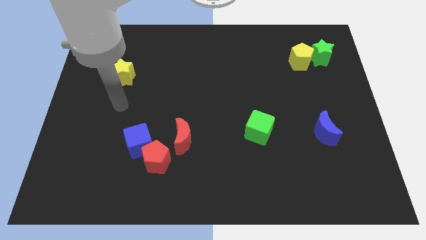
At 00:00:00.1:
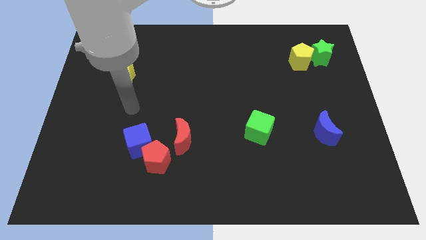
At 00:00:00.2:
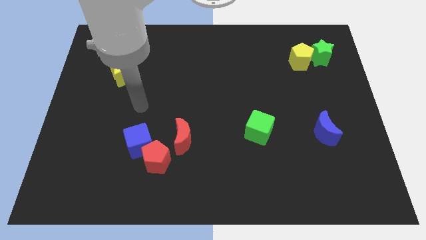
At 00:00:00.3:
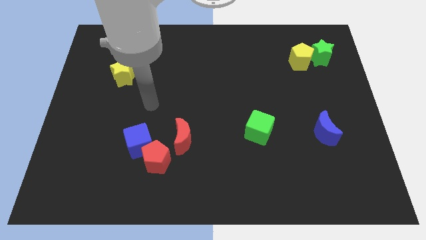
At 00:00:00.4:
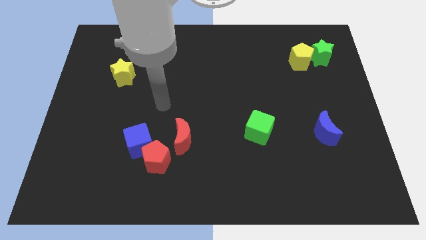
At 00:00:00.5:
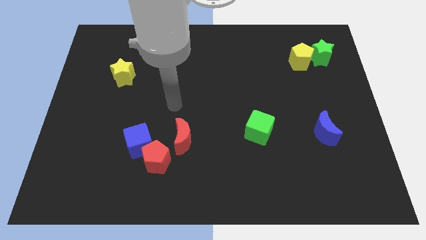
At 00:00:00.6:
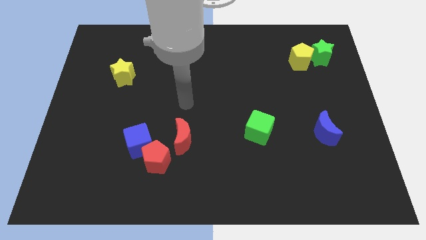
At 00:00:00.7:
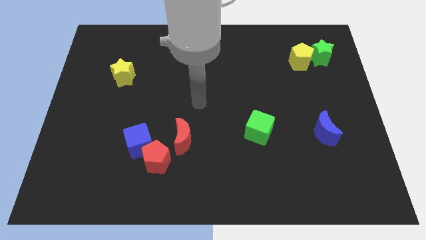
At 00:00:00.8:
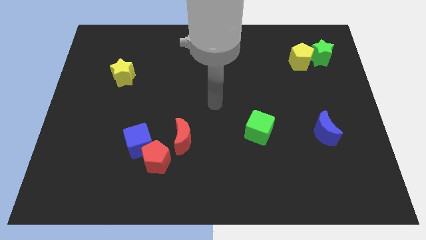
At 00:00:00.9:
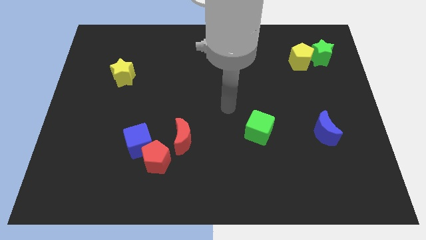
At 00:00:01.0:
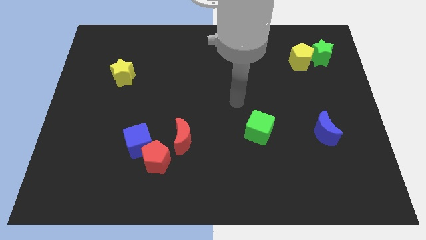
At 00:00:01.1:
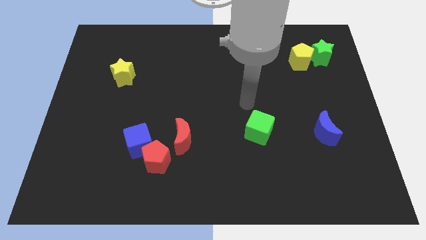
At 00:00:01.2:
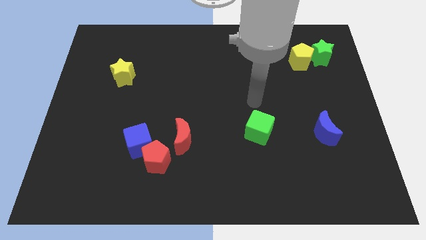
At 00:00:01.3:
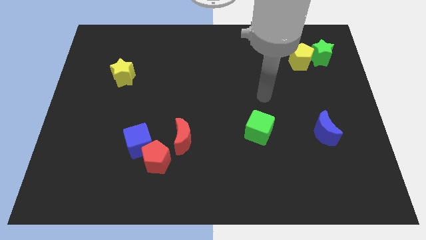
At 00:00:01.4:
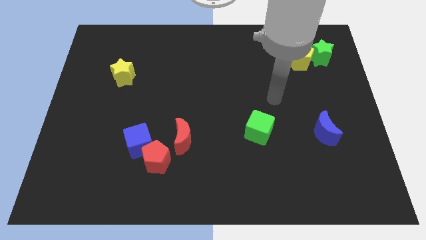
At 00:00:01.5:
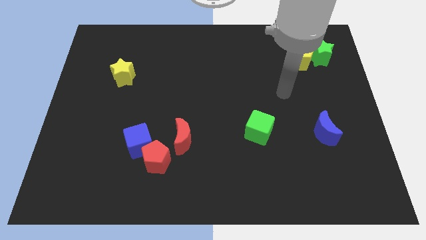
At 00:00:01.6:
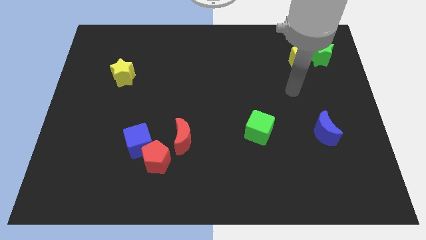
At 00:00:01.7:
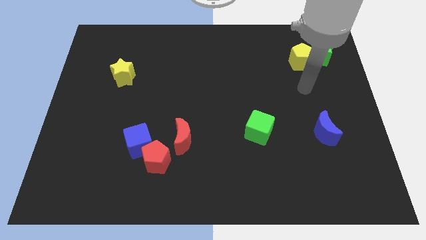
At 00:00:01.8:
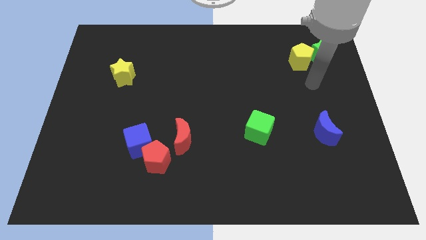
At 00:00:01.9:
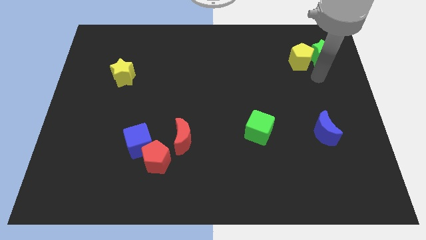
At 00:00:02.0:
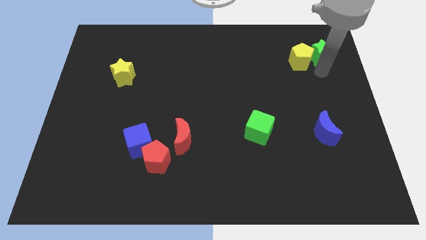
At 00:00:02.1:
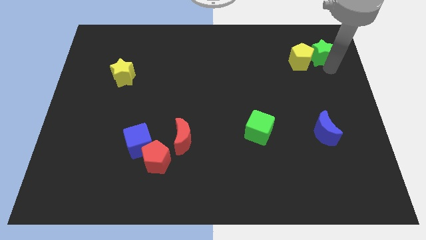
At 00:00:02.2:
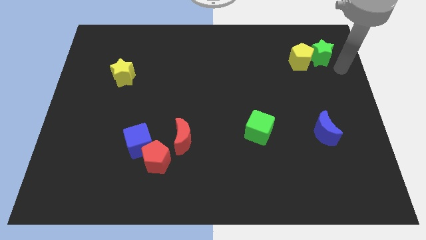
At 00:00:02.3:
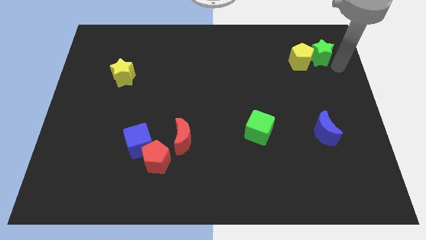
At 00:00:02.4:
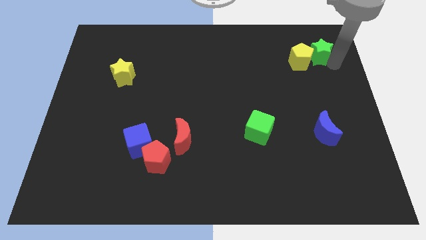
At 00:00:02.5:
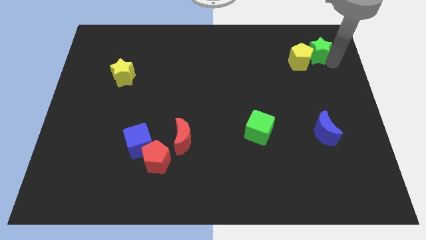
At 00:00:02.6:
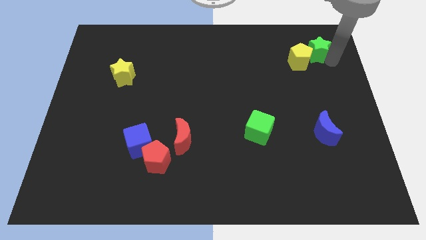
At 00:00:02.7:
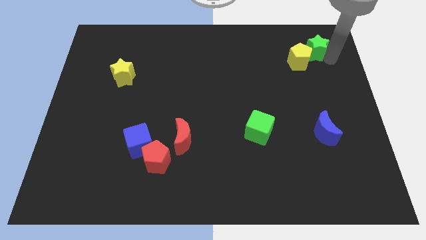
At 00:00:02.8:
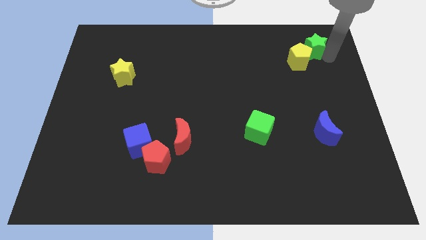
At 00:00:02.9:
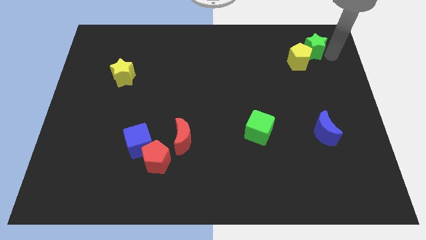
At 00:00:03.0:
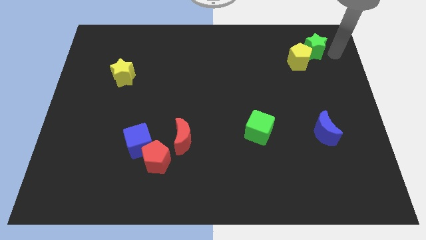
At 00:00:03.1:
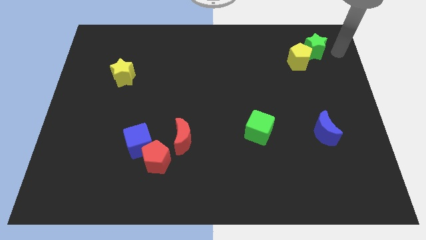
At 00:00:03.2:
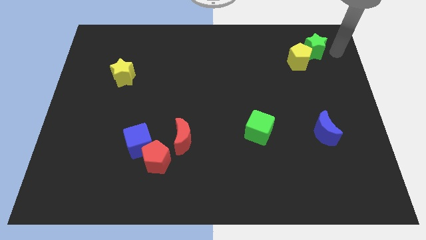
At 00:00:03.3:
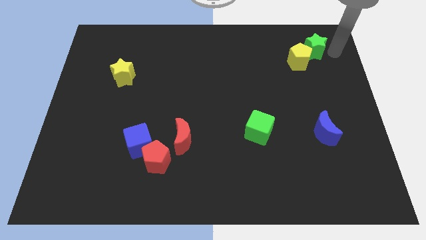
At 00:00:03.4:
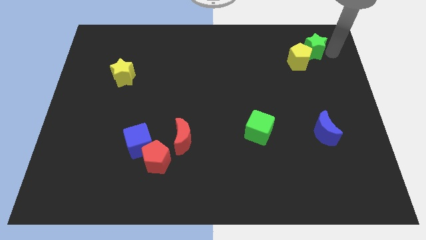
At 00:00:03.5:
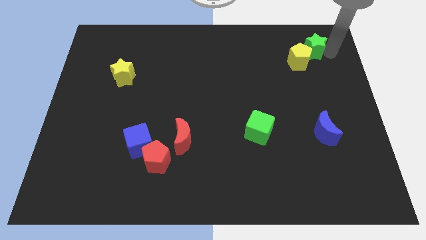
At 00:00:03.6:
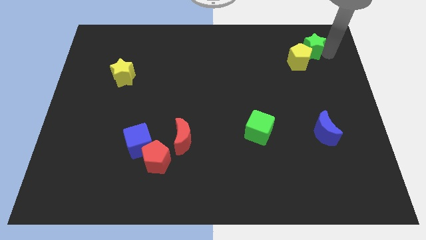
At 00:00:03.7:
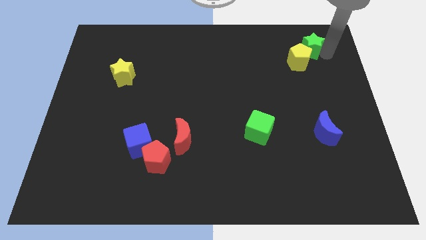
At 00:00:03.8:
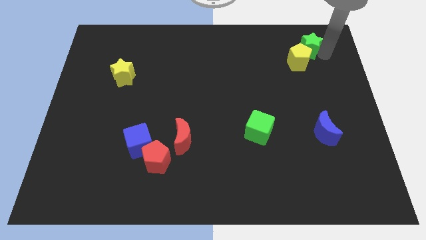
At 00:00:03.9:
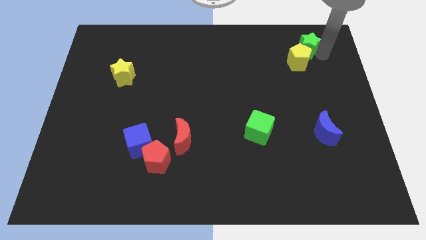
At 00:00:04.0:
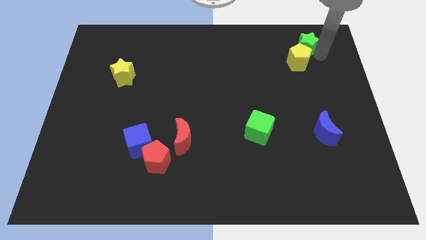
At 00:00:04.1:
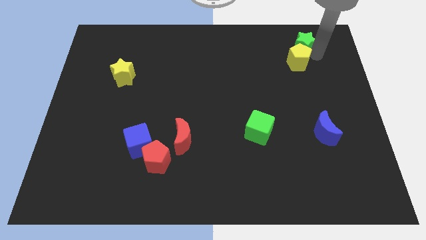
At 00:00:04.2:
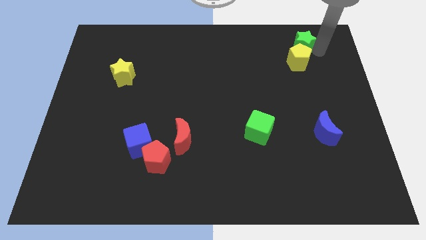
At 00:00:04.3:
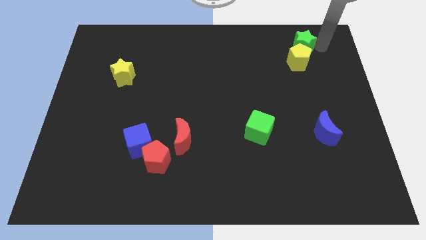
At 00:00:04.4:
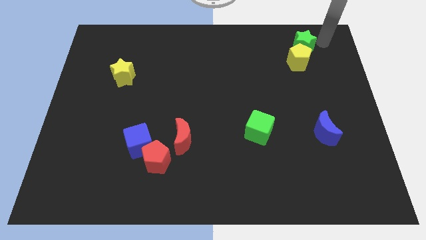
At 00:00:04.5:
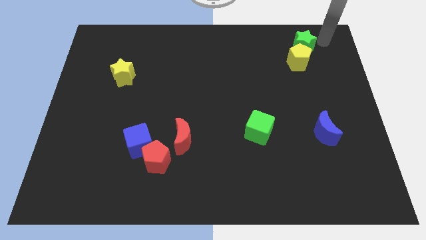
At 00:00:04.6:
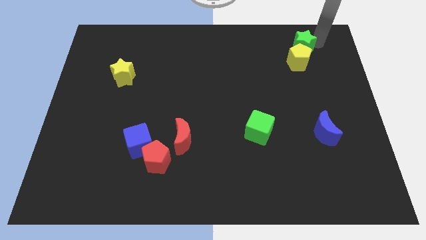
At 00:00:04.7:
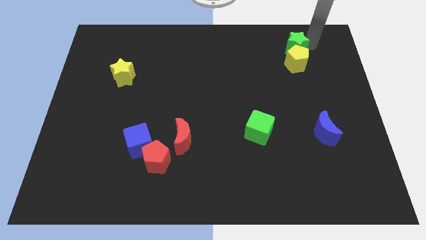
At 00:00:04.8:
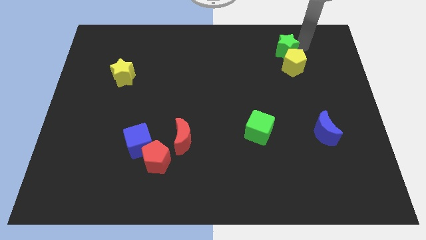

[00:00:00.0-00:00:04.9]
slightly slide the green star left

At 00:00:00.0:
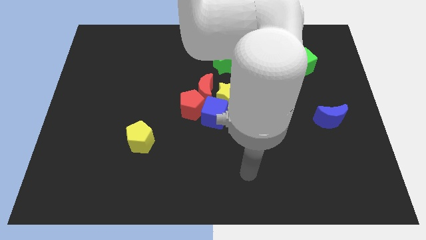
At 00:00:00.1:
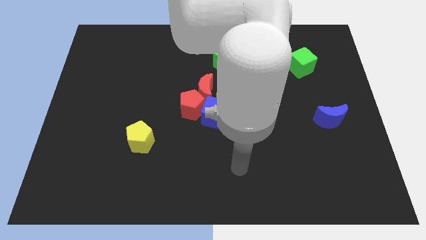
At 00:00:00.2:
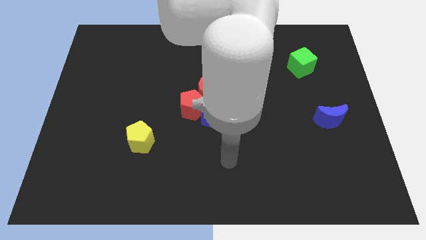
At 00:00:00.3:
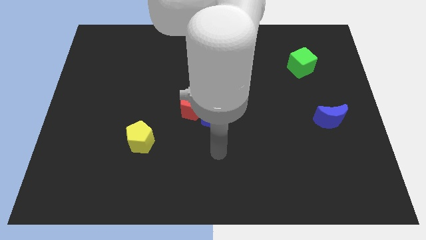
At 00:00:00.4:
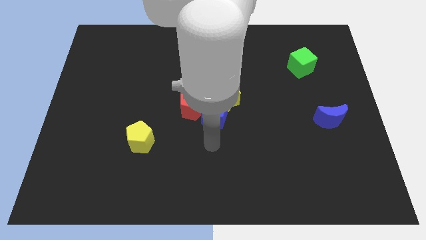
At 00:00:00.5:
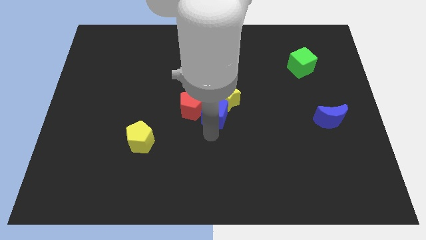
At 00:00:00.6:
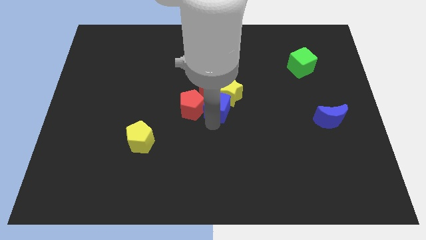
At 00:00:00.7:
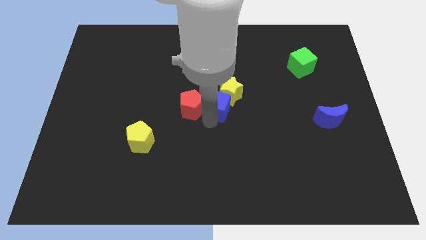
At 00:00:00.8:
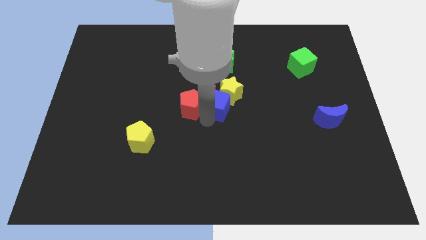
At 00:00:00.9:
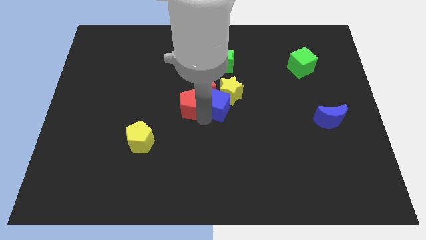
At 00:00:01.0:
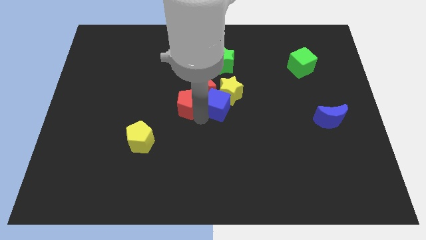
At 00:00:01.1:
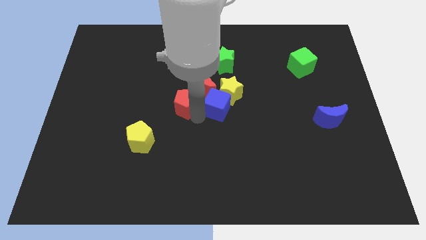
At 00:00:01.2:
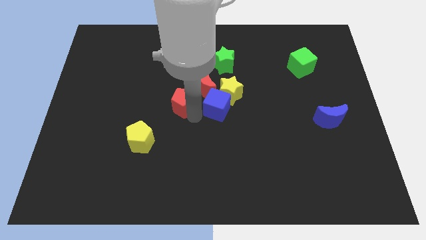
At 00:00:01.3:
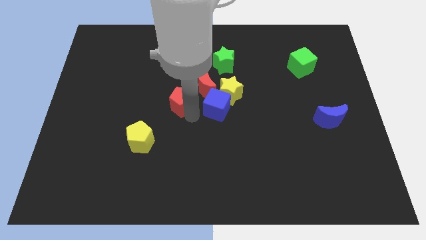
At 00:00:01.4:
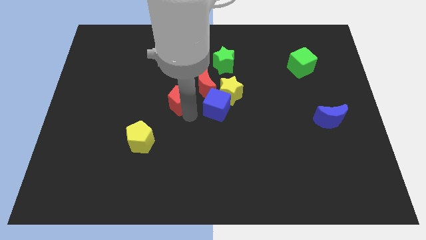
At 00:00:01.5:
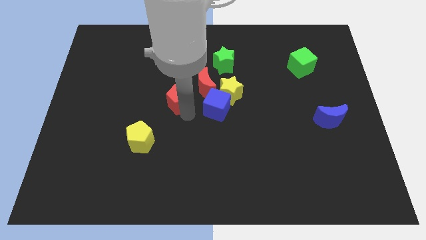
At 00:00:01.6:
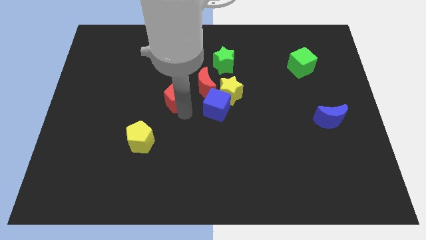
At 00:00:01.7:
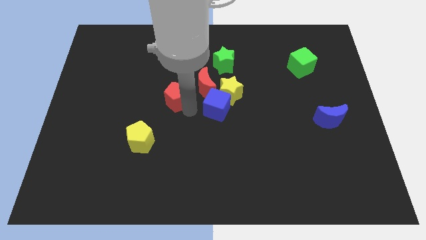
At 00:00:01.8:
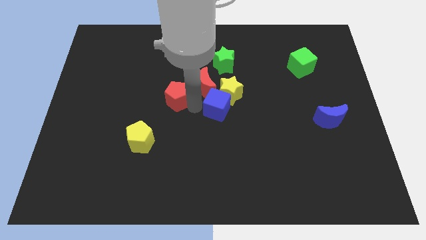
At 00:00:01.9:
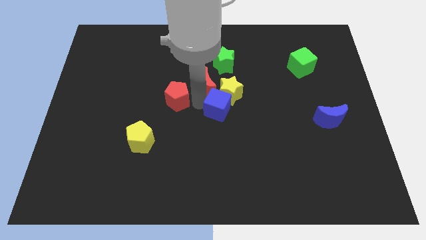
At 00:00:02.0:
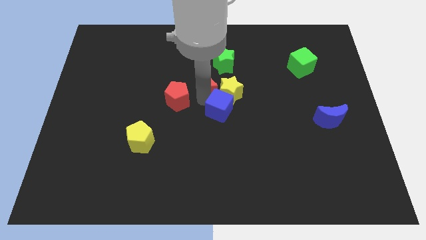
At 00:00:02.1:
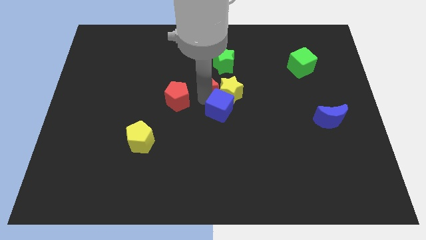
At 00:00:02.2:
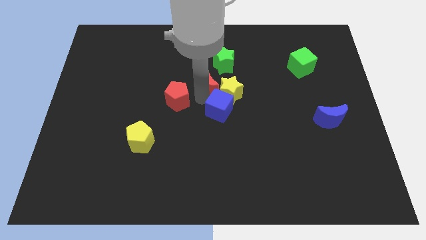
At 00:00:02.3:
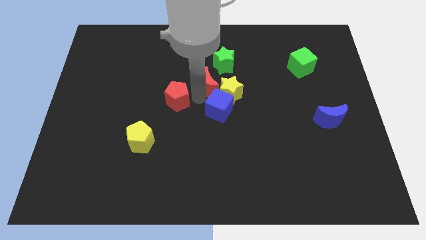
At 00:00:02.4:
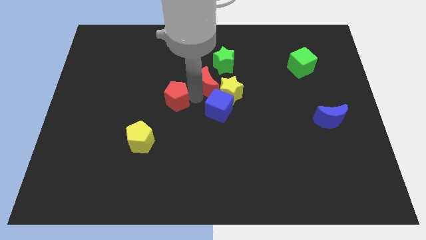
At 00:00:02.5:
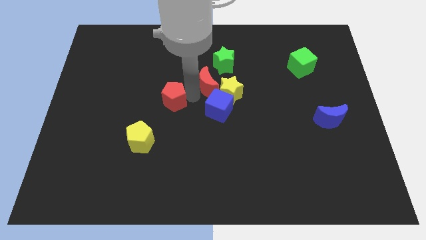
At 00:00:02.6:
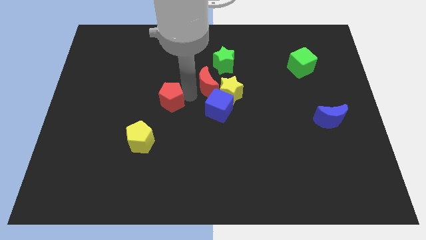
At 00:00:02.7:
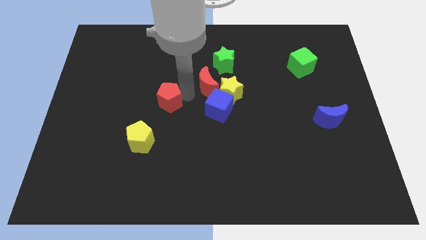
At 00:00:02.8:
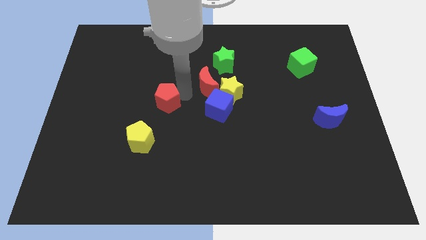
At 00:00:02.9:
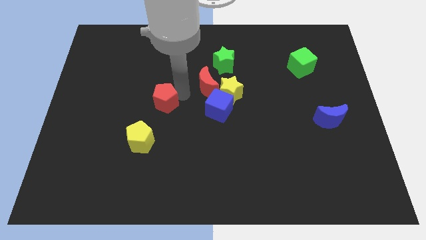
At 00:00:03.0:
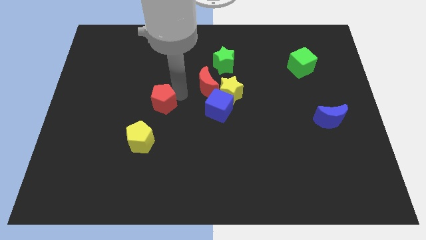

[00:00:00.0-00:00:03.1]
push the red pentagon slightly to the left
